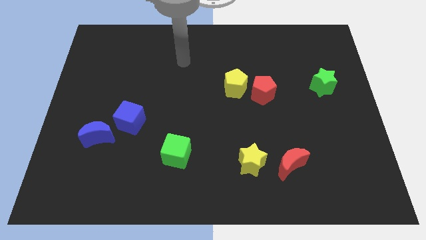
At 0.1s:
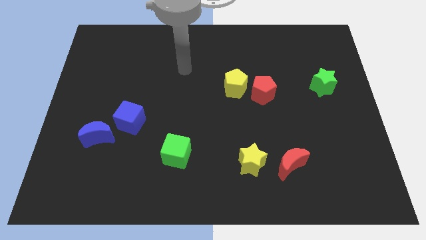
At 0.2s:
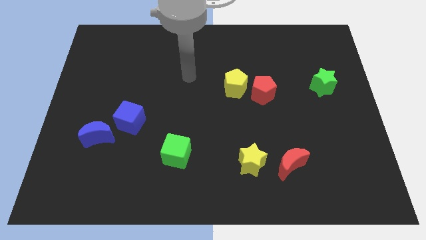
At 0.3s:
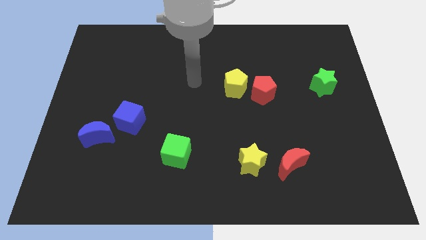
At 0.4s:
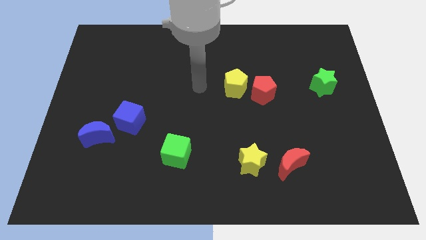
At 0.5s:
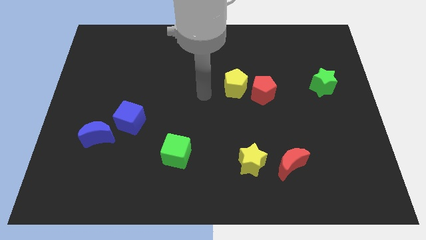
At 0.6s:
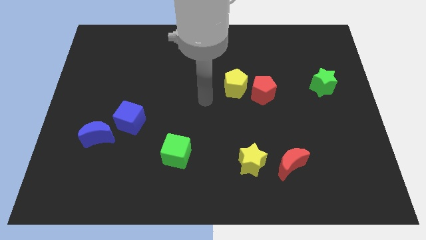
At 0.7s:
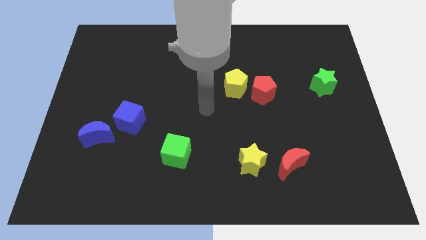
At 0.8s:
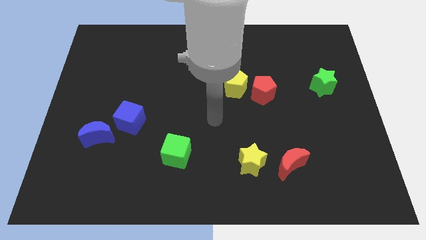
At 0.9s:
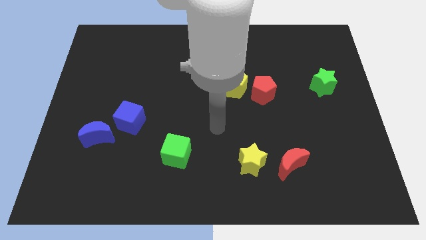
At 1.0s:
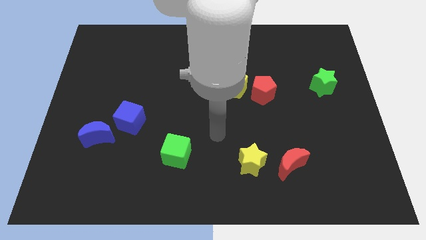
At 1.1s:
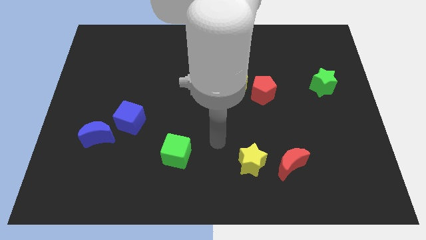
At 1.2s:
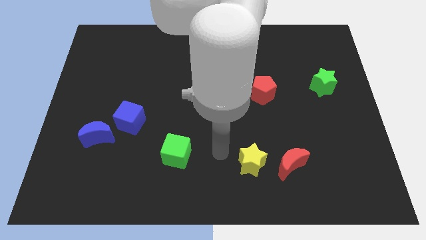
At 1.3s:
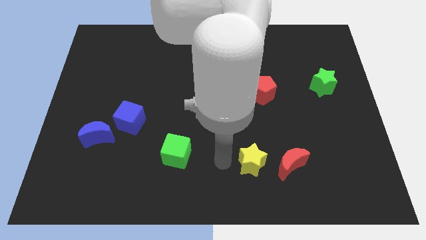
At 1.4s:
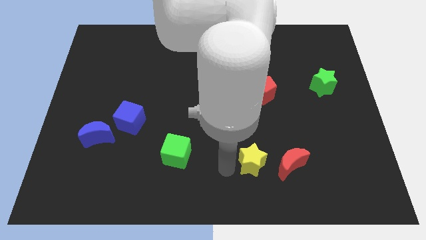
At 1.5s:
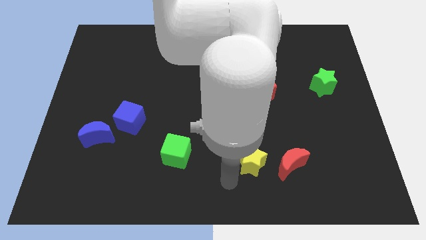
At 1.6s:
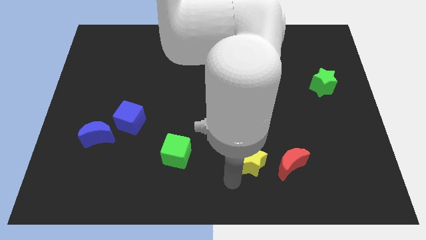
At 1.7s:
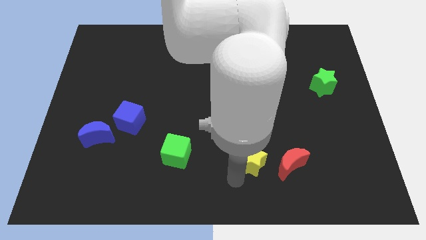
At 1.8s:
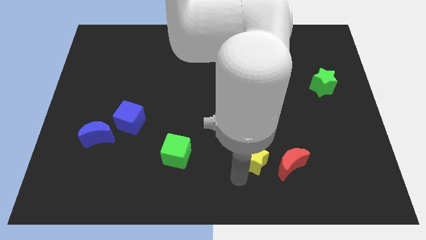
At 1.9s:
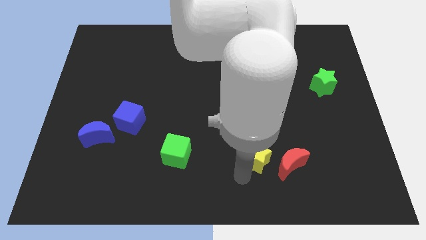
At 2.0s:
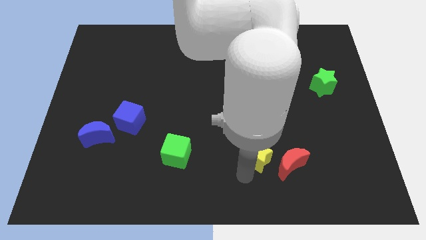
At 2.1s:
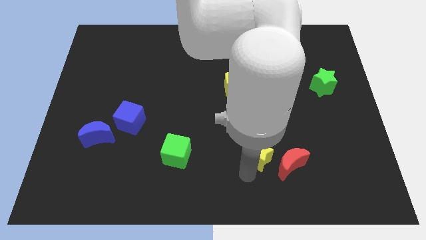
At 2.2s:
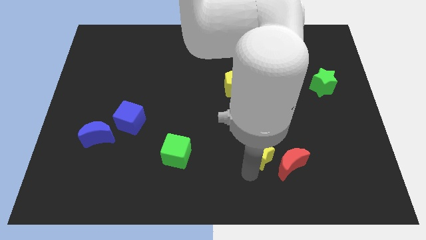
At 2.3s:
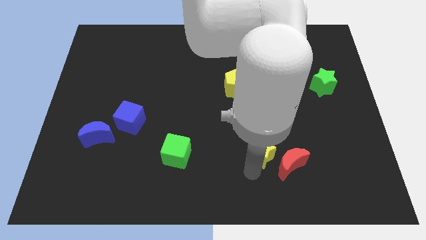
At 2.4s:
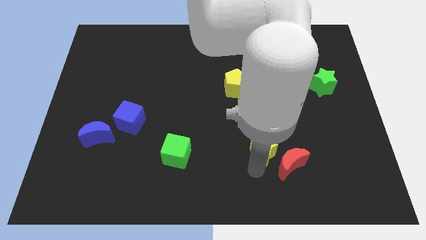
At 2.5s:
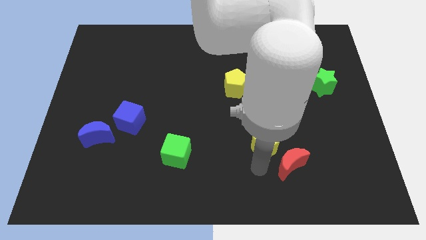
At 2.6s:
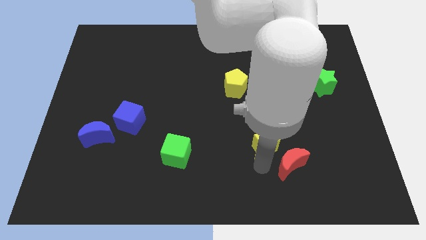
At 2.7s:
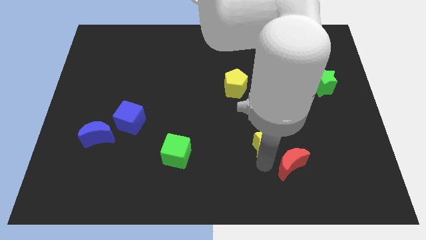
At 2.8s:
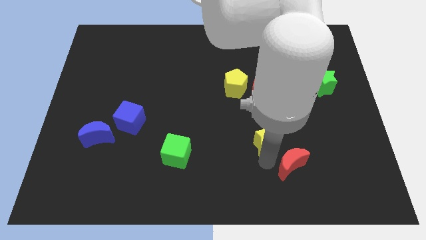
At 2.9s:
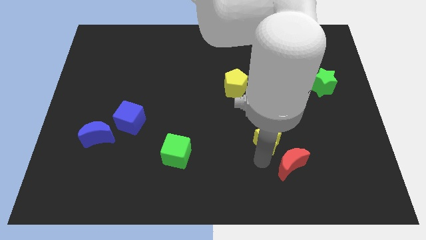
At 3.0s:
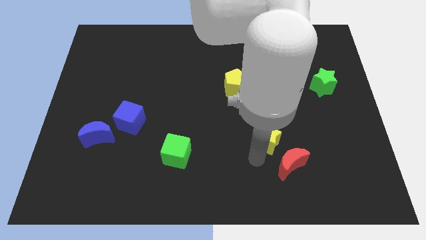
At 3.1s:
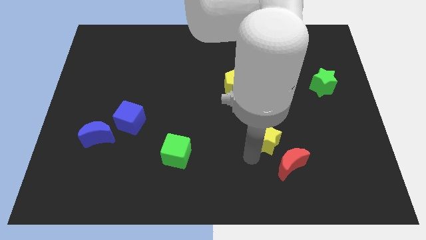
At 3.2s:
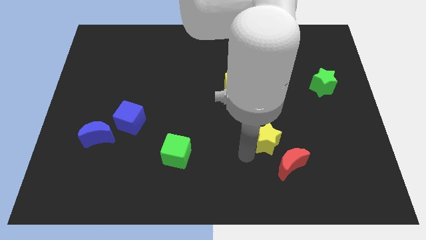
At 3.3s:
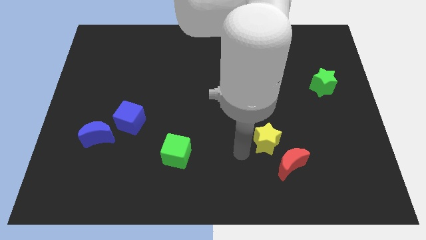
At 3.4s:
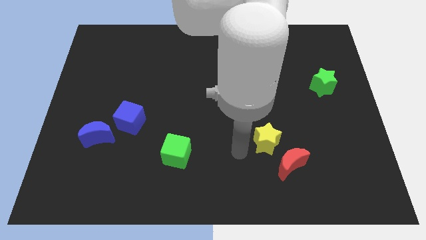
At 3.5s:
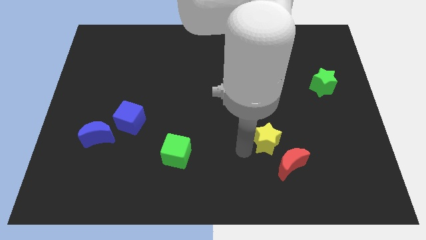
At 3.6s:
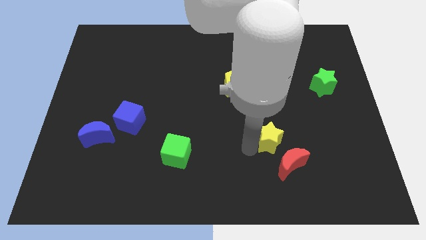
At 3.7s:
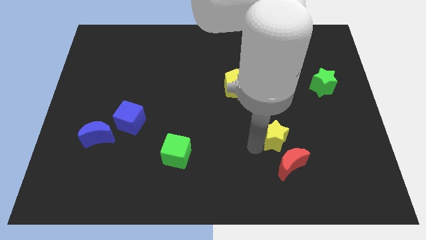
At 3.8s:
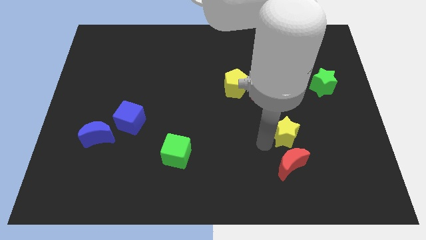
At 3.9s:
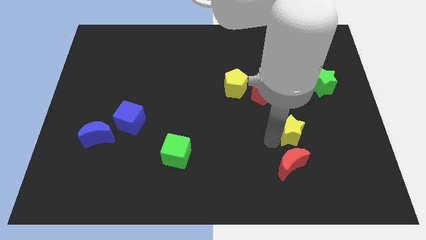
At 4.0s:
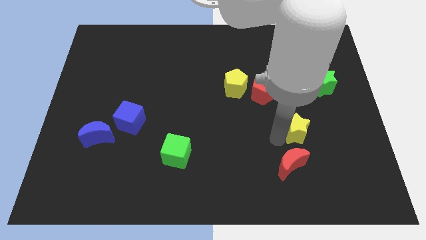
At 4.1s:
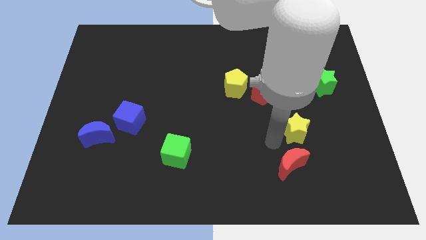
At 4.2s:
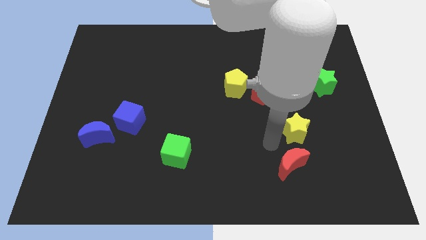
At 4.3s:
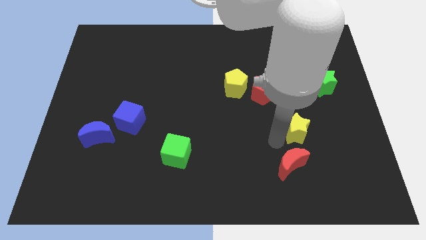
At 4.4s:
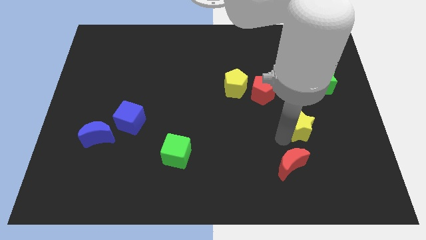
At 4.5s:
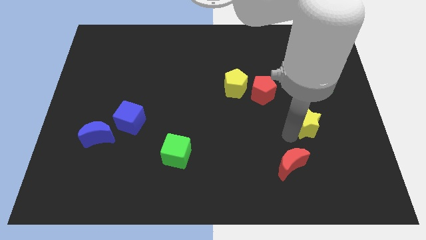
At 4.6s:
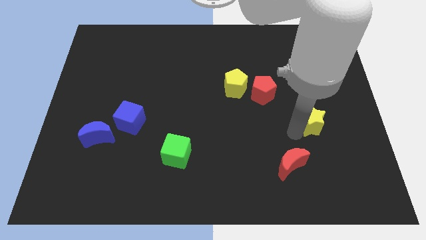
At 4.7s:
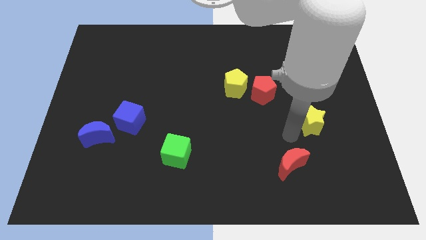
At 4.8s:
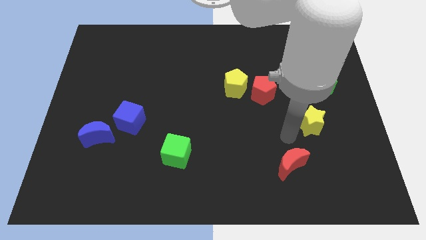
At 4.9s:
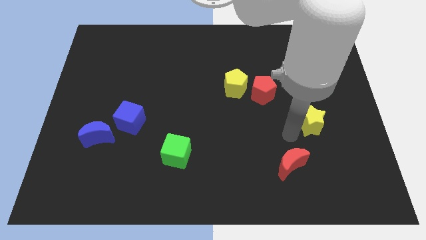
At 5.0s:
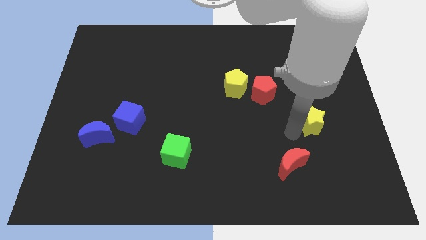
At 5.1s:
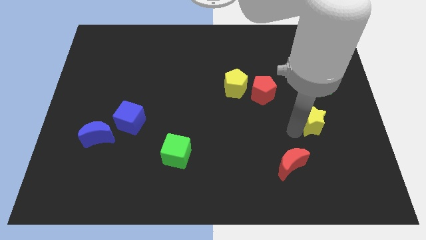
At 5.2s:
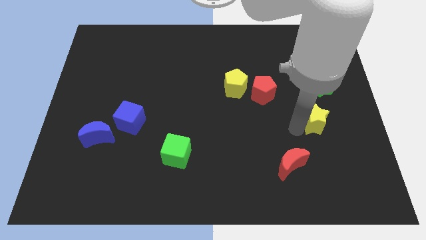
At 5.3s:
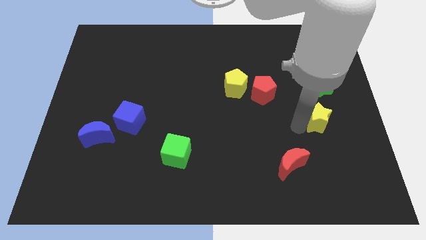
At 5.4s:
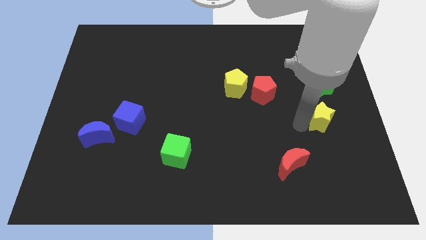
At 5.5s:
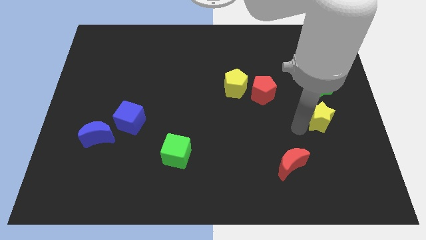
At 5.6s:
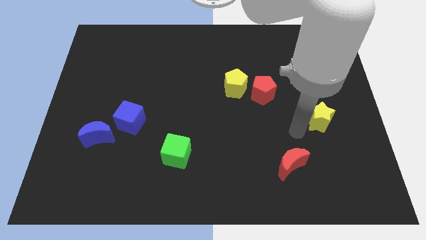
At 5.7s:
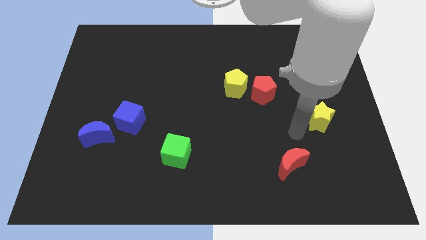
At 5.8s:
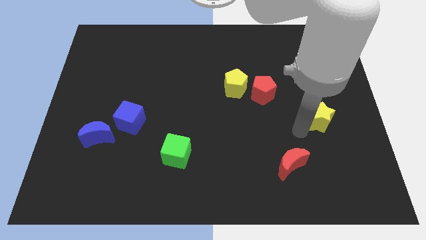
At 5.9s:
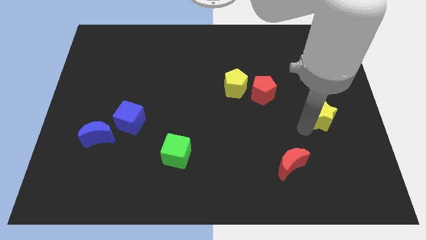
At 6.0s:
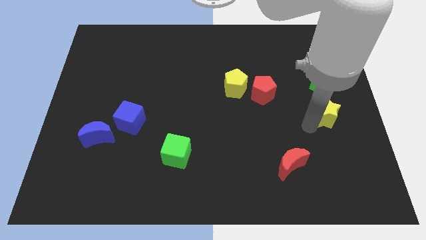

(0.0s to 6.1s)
slide the yellow star to the center right
